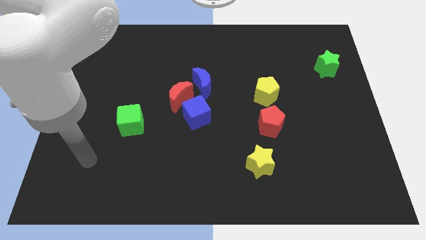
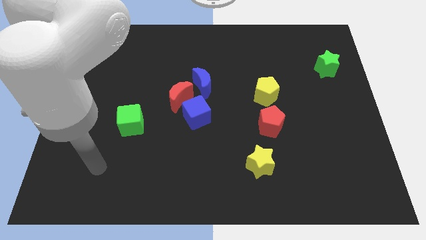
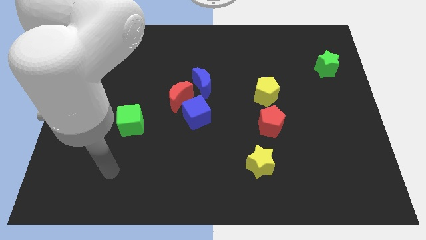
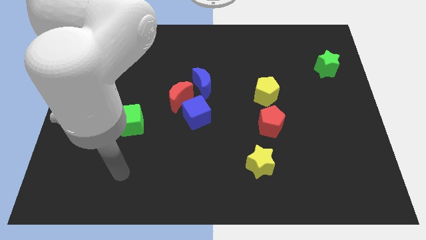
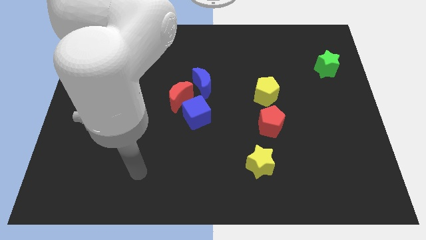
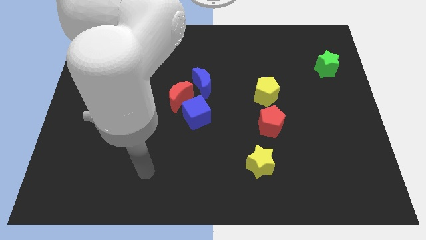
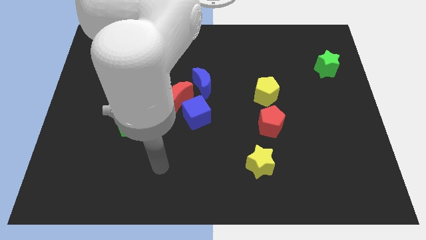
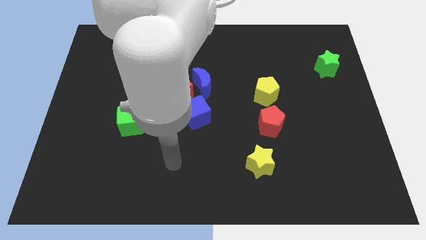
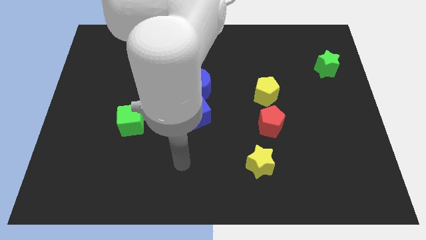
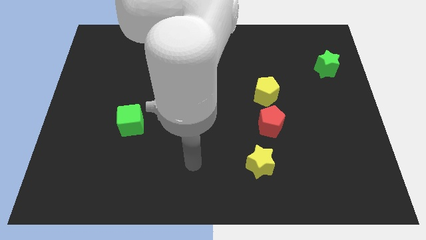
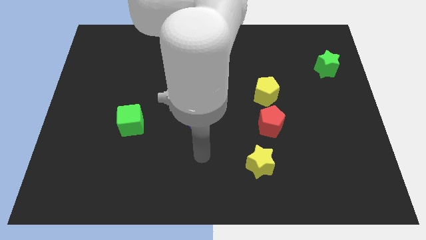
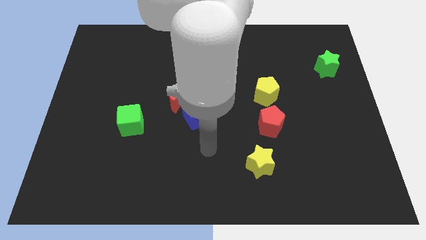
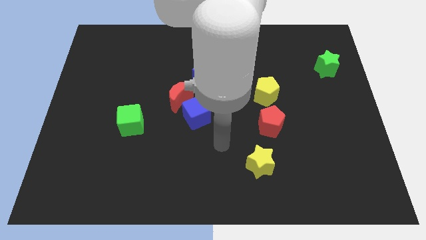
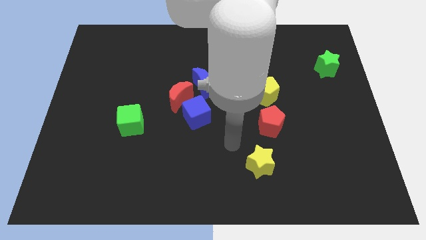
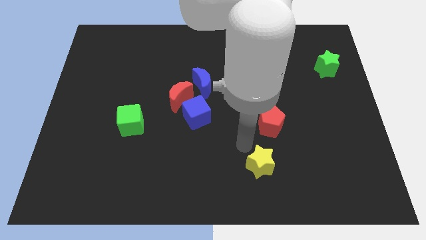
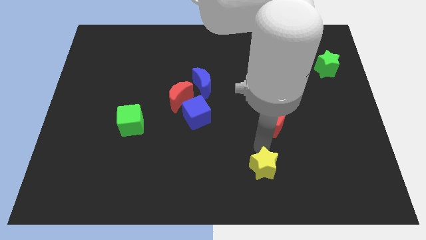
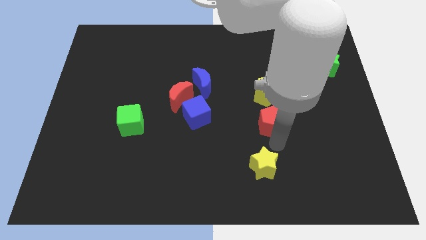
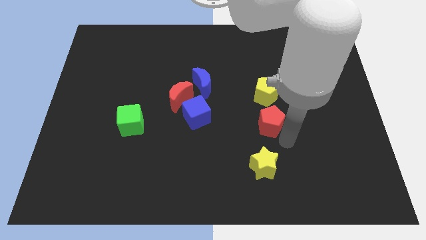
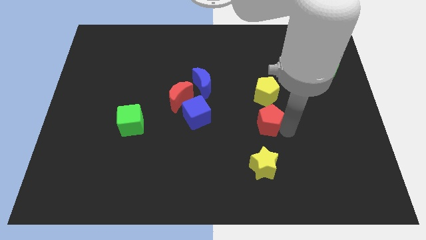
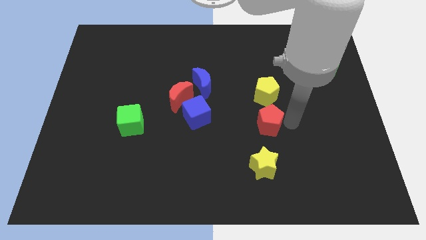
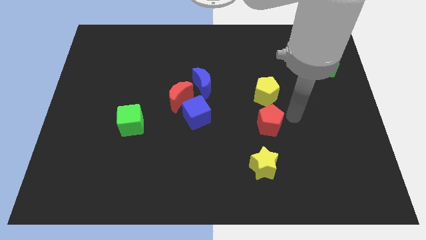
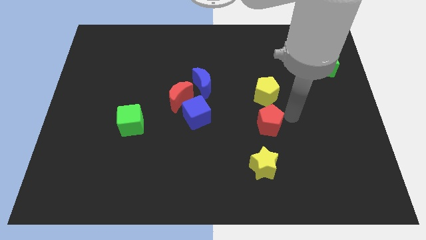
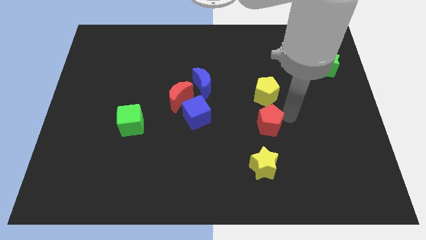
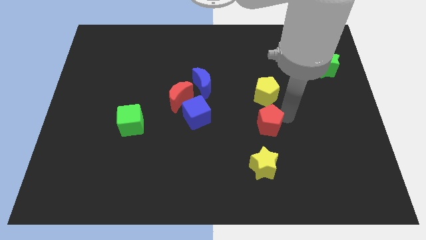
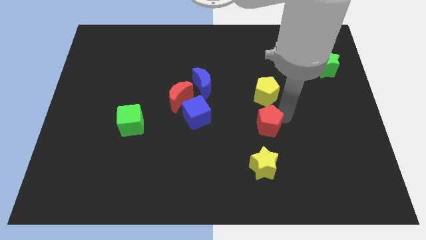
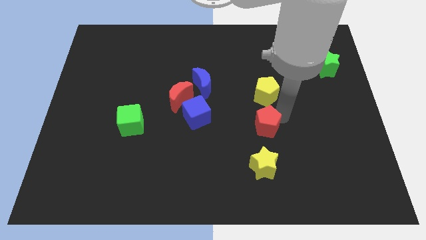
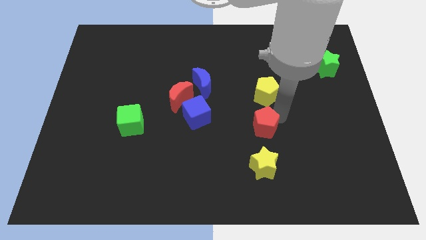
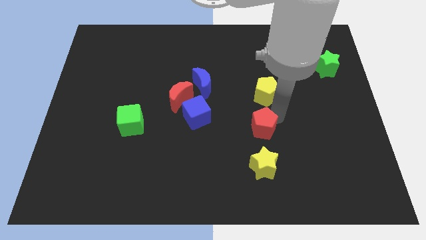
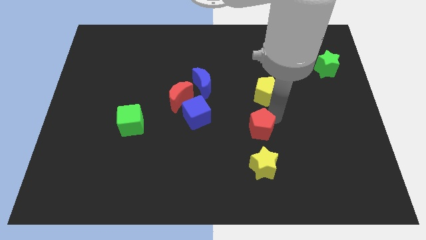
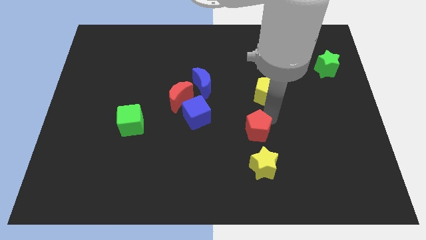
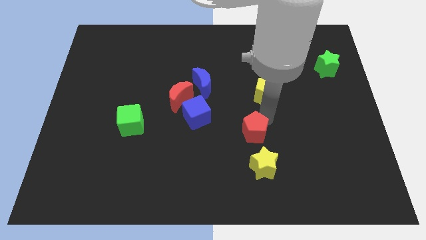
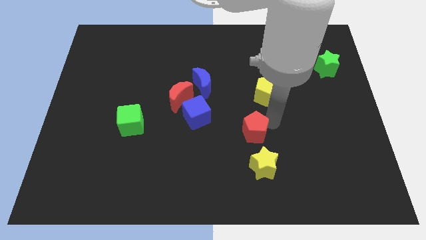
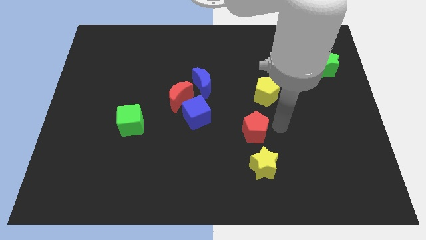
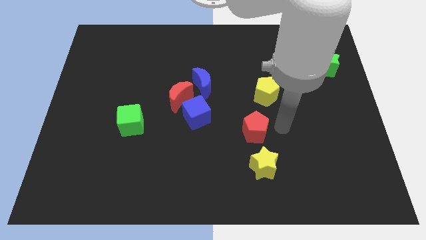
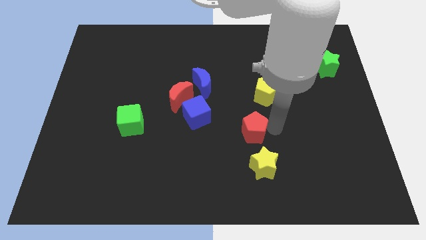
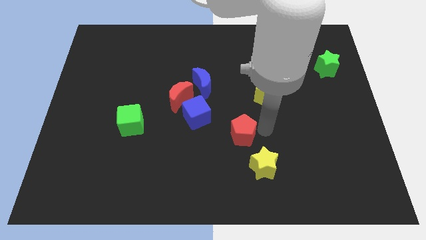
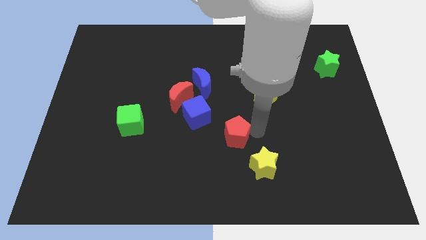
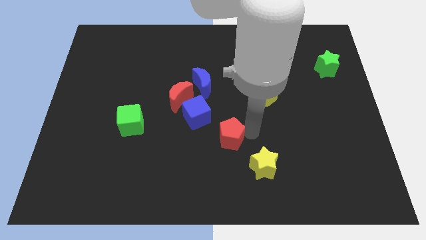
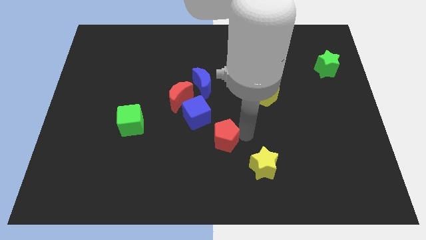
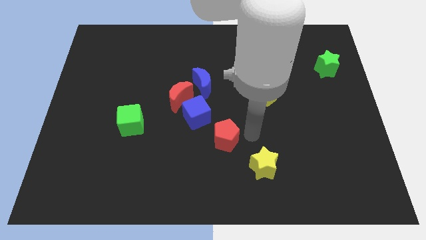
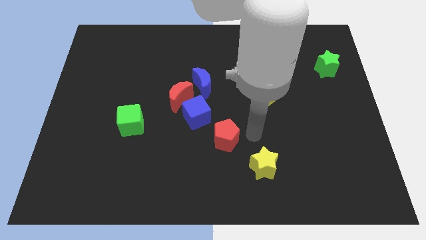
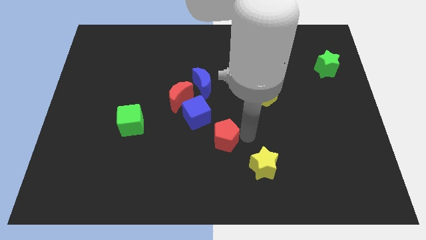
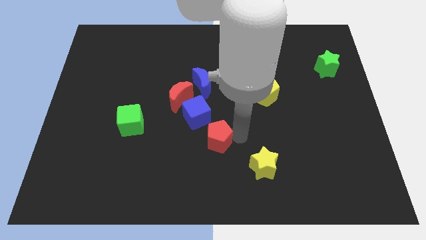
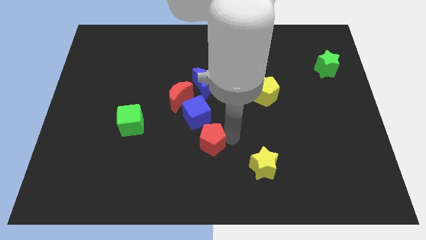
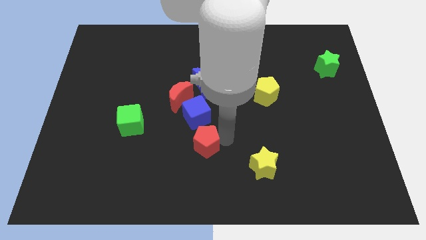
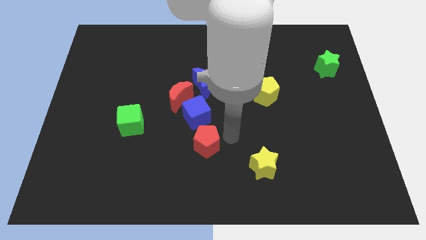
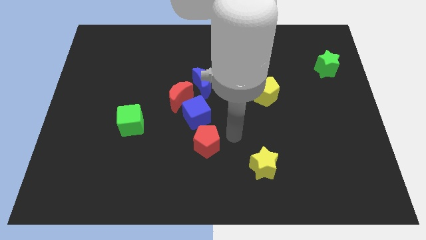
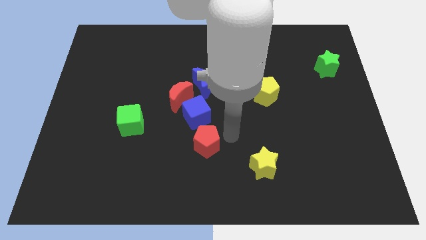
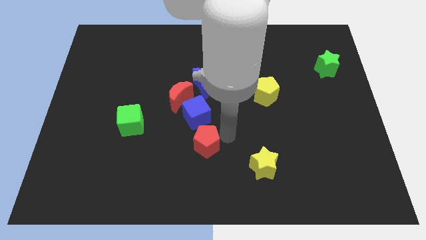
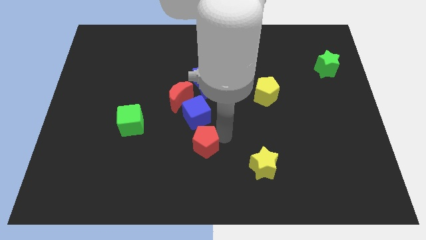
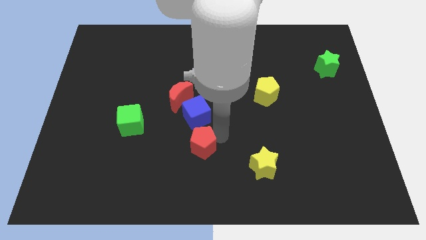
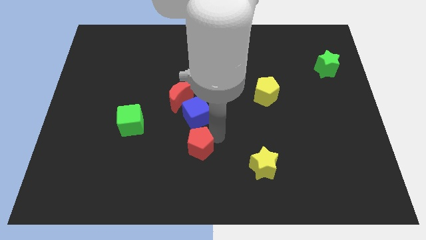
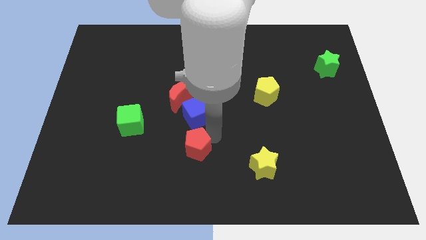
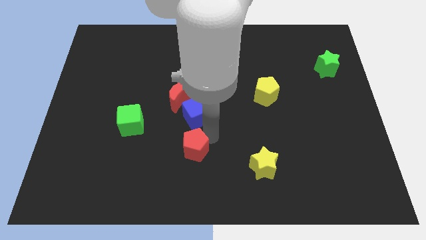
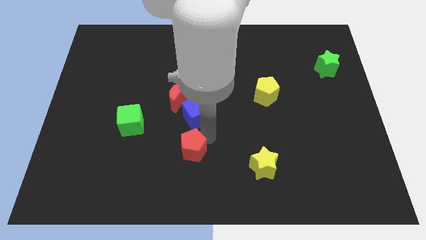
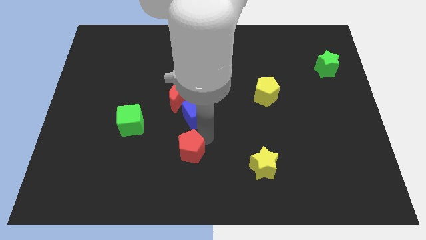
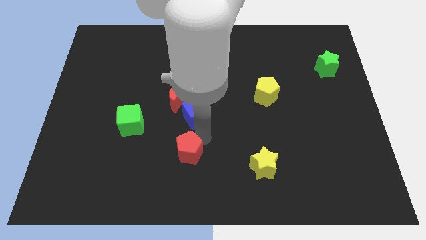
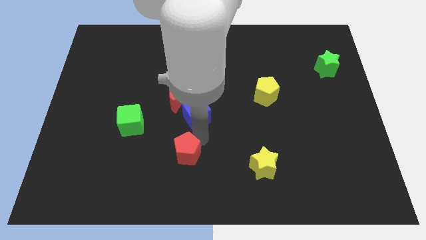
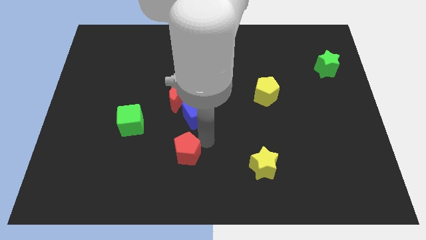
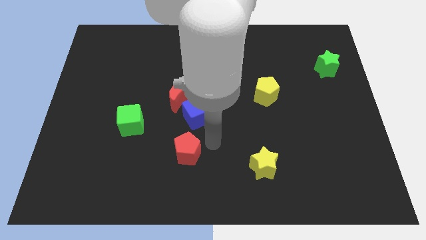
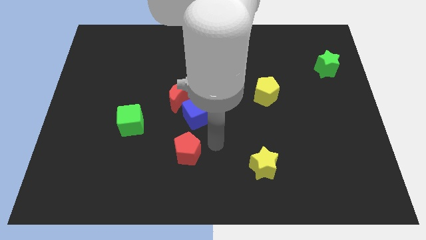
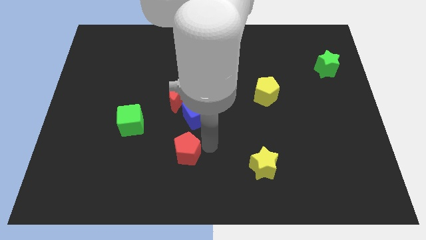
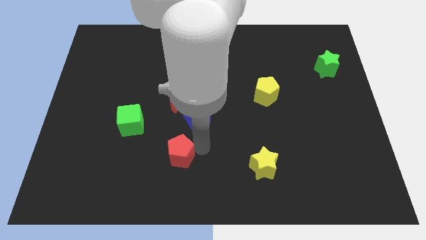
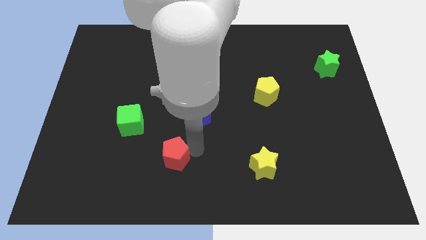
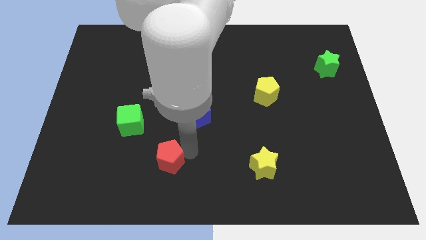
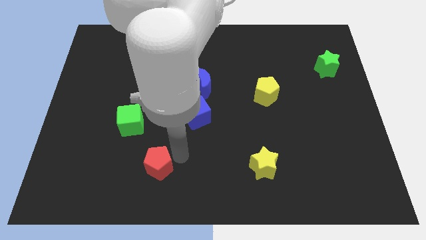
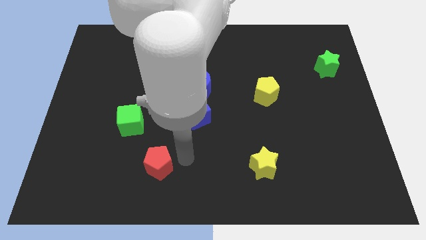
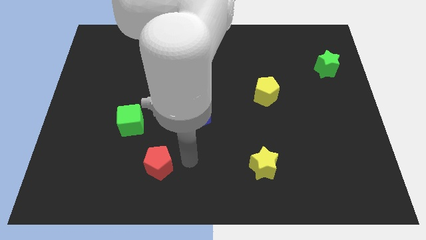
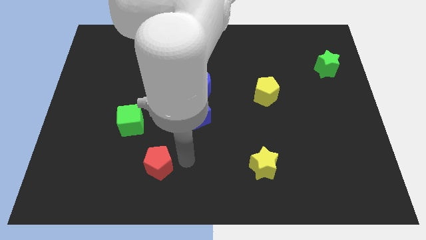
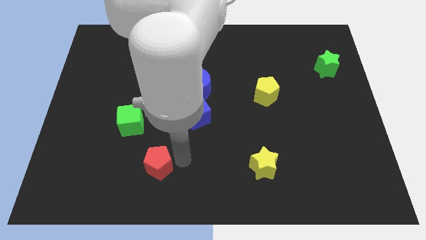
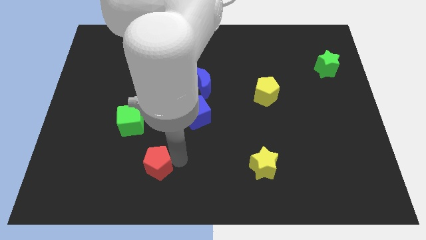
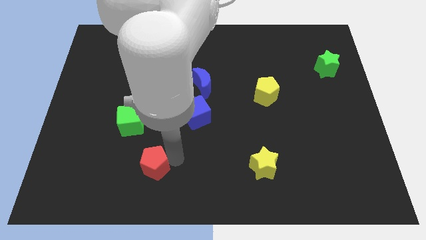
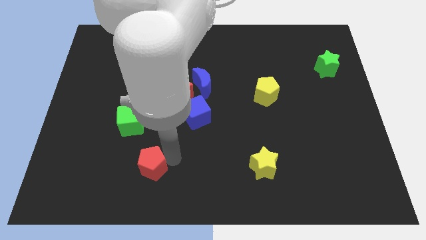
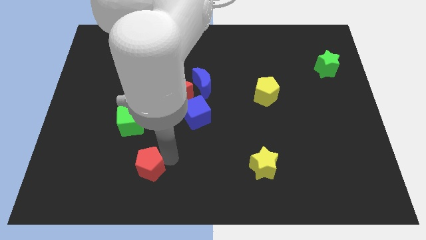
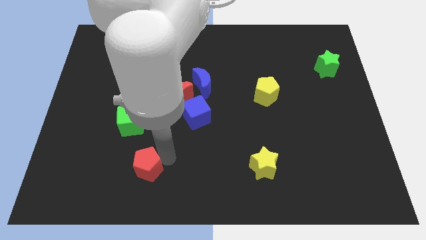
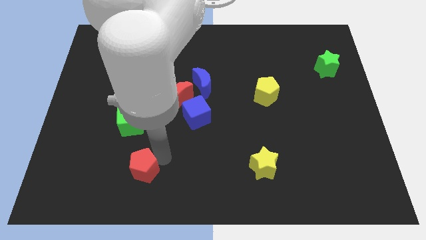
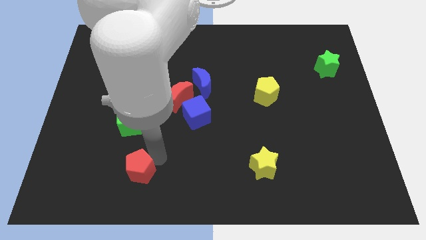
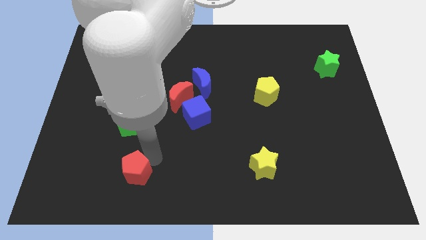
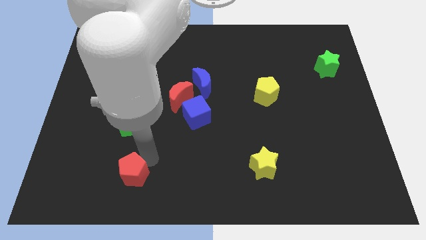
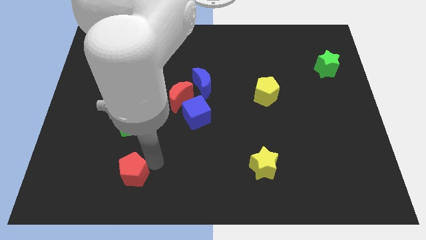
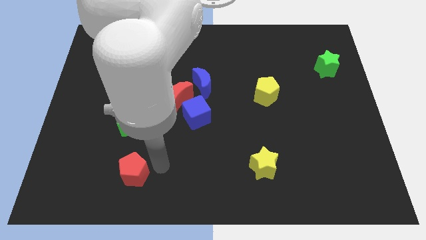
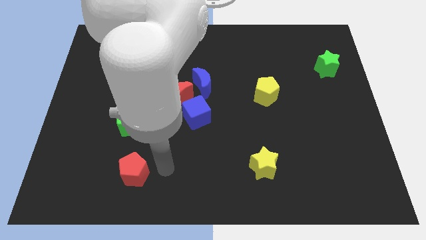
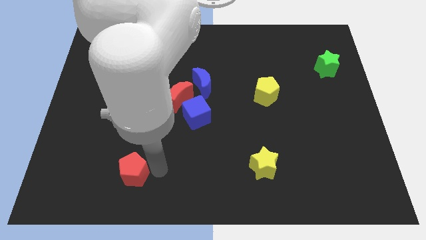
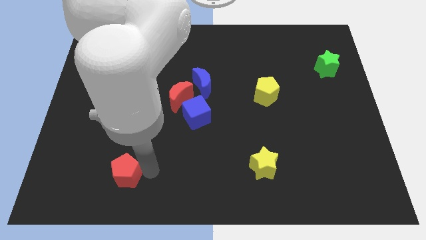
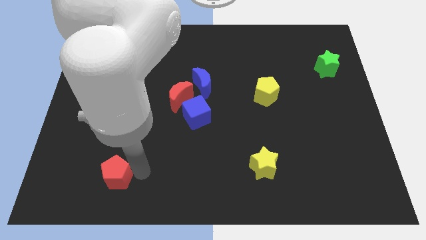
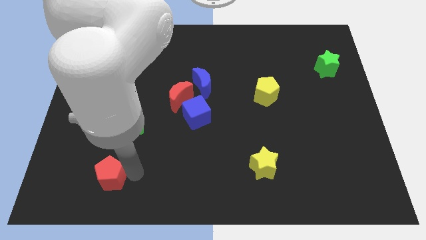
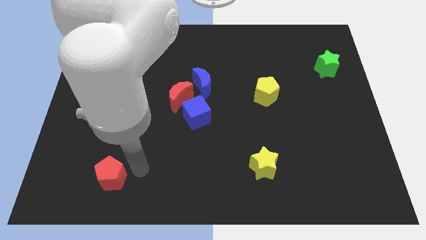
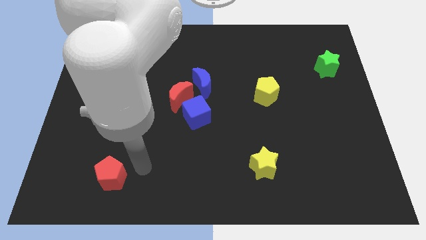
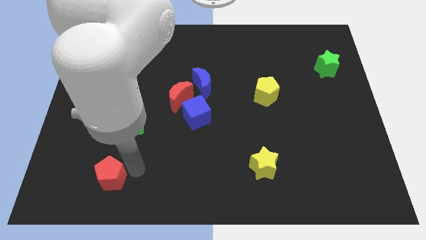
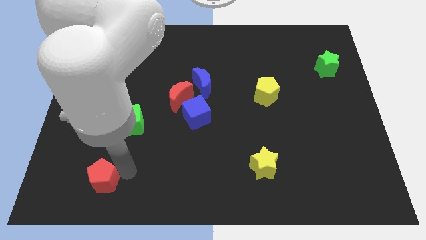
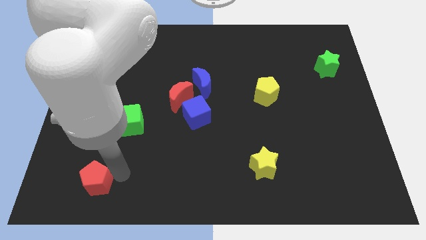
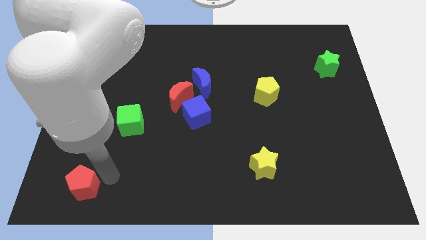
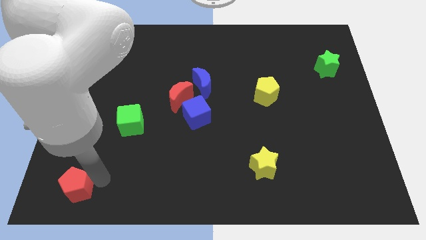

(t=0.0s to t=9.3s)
push the red pentagon to the bottom left of the board
